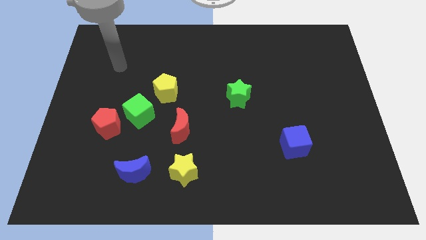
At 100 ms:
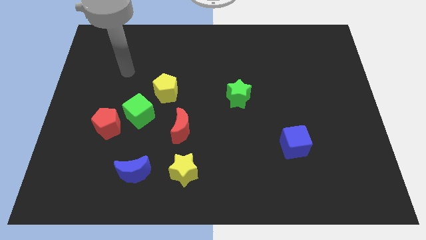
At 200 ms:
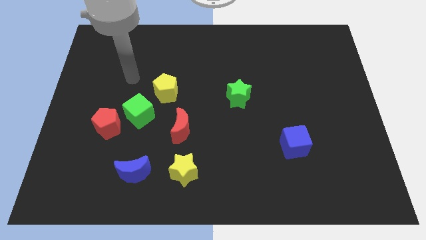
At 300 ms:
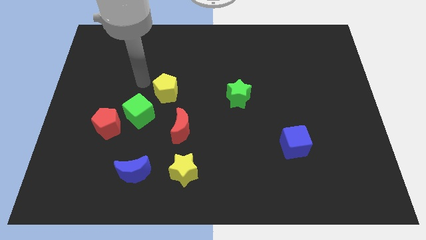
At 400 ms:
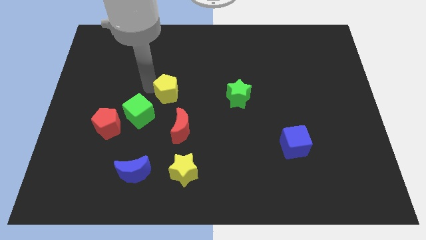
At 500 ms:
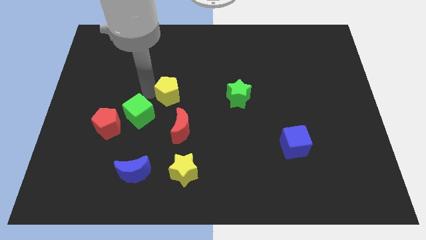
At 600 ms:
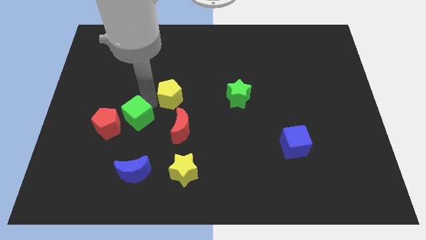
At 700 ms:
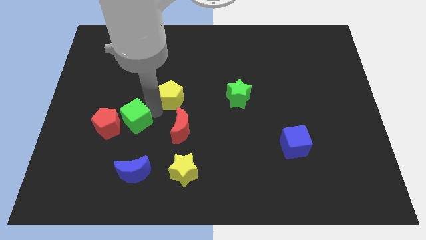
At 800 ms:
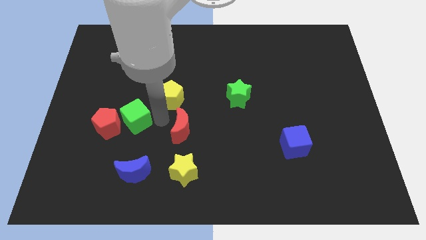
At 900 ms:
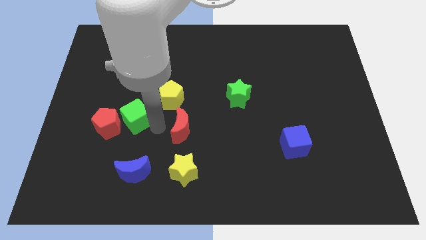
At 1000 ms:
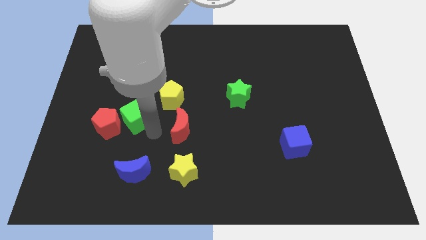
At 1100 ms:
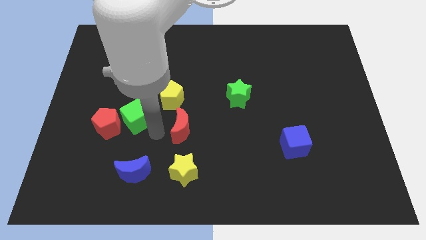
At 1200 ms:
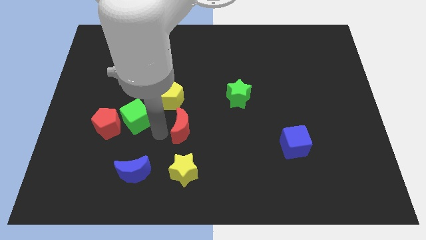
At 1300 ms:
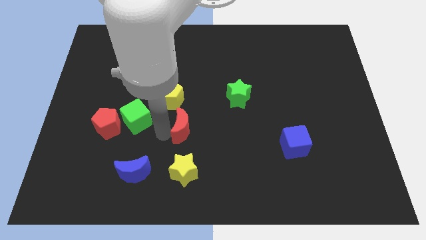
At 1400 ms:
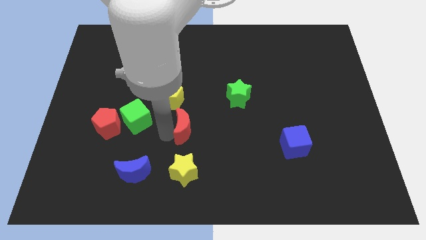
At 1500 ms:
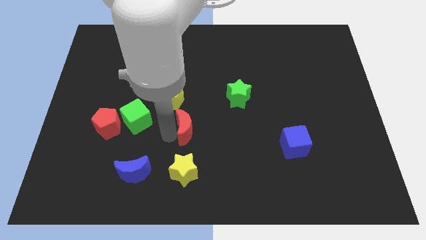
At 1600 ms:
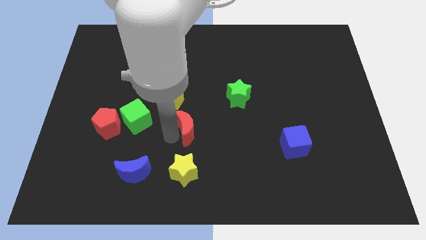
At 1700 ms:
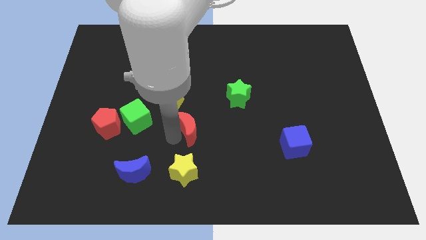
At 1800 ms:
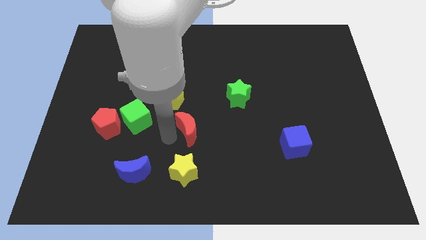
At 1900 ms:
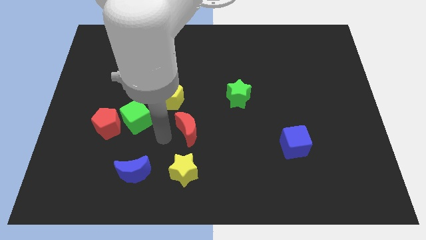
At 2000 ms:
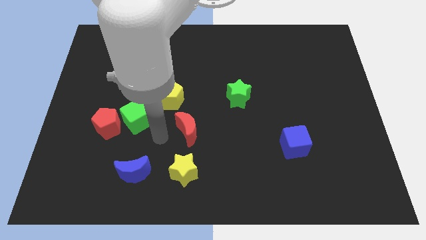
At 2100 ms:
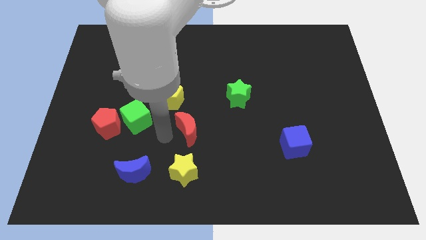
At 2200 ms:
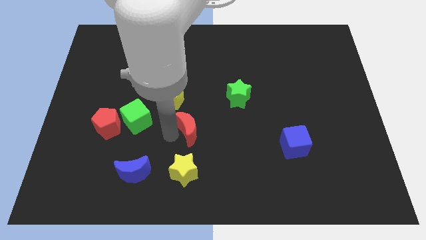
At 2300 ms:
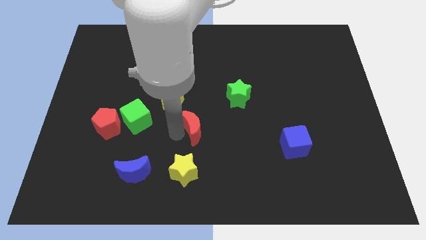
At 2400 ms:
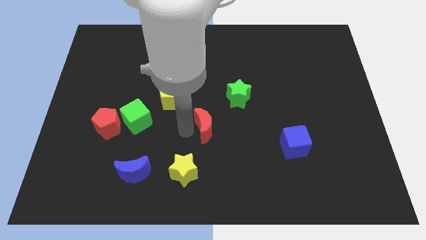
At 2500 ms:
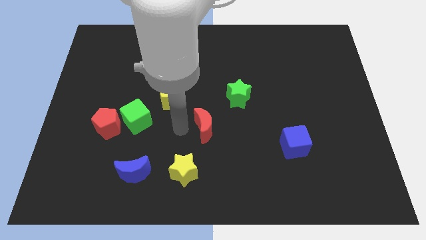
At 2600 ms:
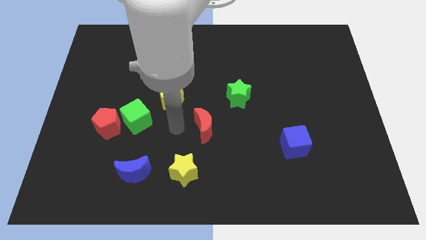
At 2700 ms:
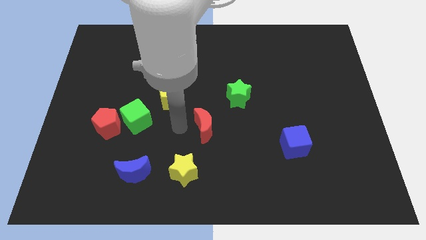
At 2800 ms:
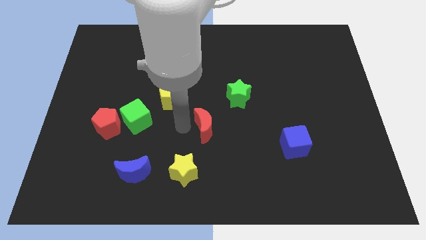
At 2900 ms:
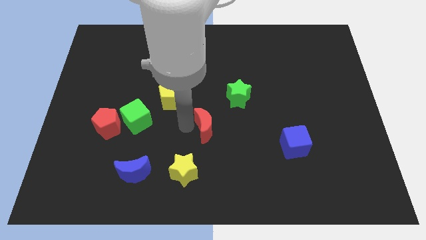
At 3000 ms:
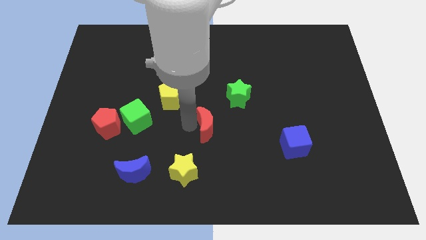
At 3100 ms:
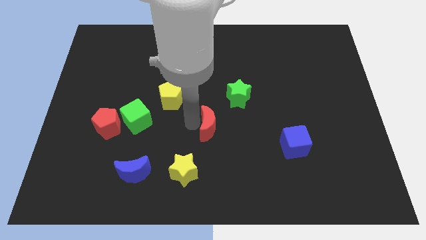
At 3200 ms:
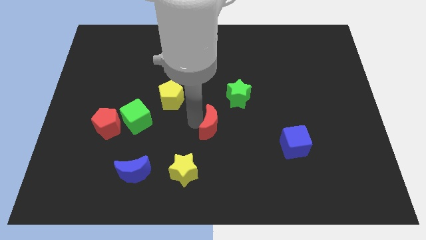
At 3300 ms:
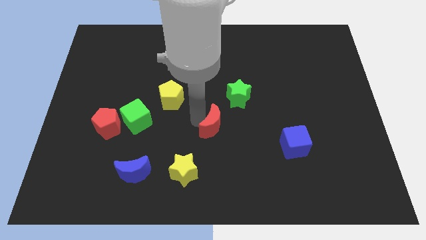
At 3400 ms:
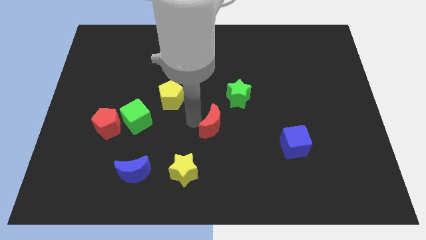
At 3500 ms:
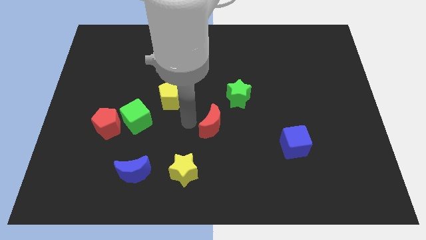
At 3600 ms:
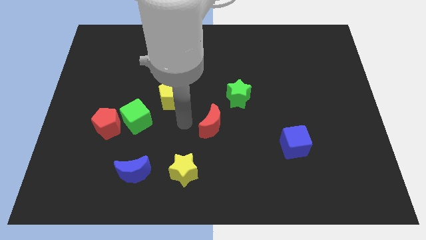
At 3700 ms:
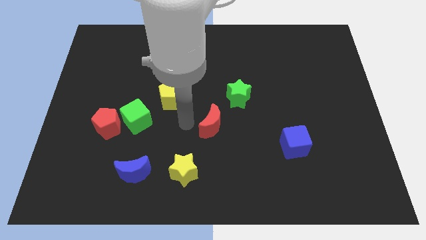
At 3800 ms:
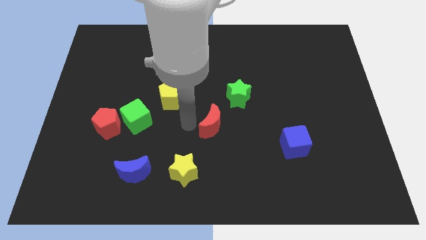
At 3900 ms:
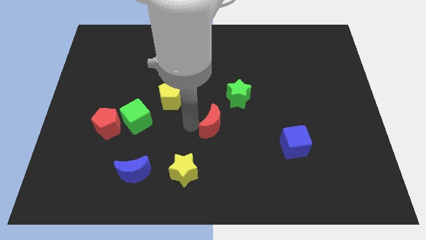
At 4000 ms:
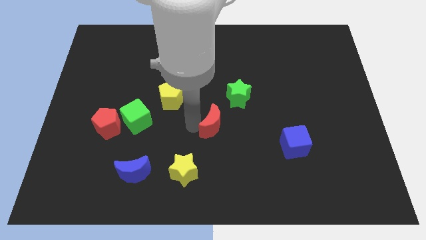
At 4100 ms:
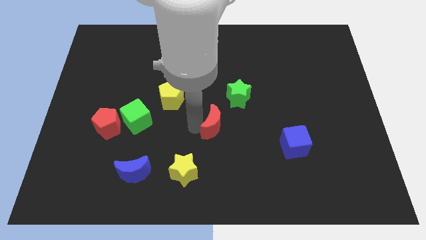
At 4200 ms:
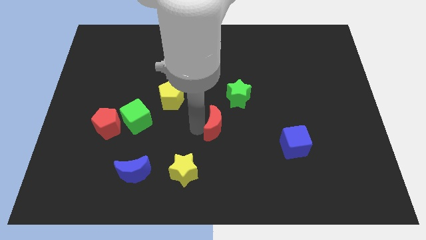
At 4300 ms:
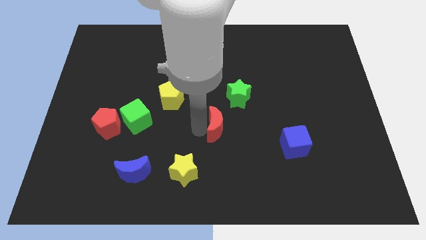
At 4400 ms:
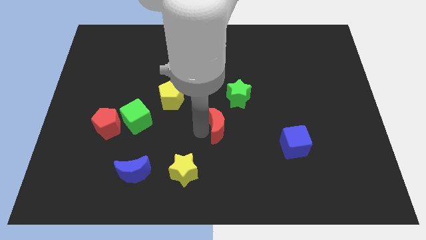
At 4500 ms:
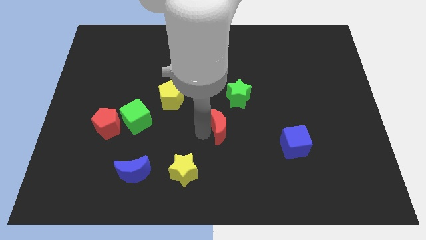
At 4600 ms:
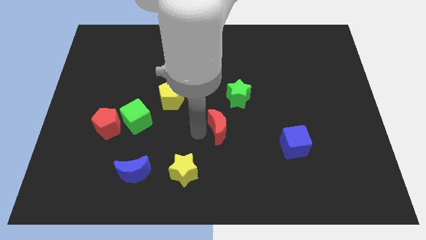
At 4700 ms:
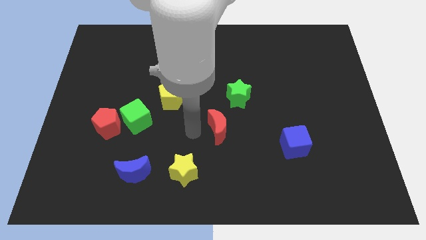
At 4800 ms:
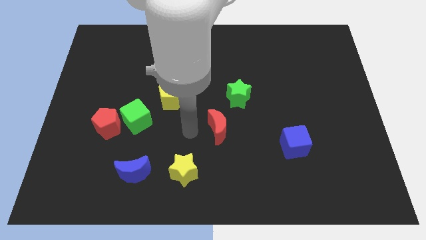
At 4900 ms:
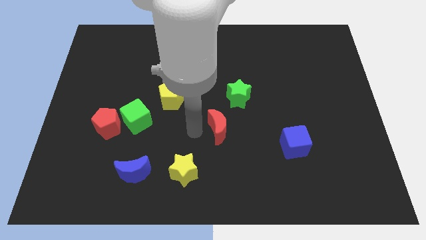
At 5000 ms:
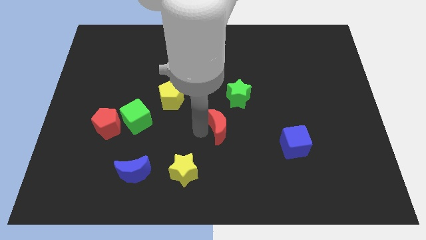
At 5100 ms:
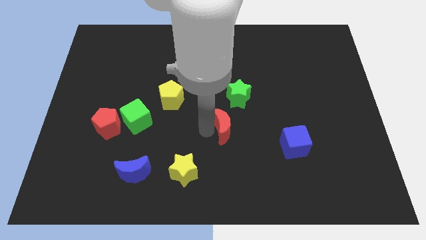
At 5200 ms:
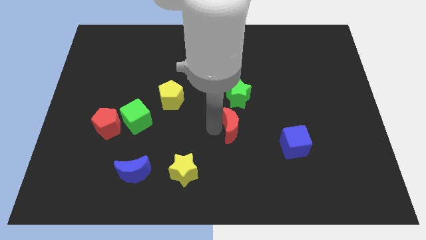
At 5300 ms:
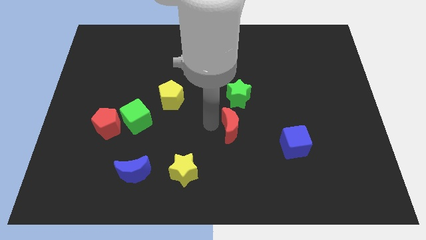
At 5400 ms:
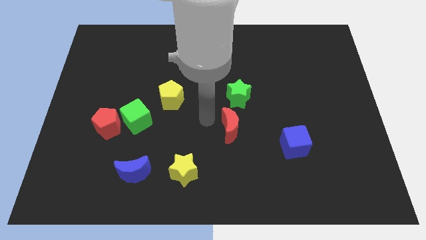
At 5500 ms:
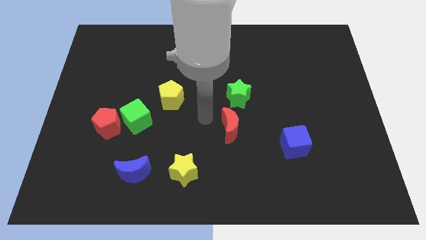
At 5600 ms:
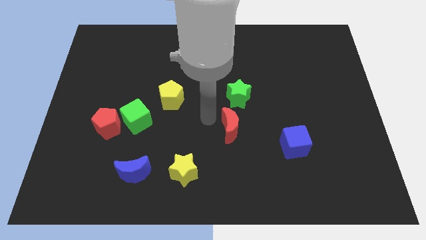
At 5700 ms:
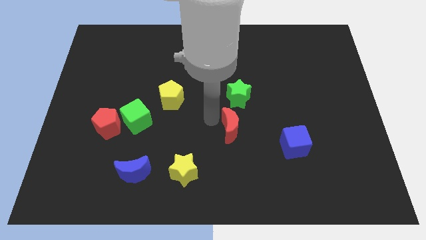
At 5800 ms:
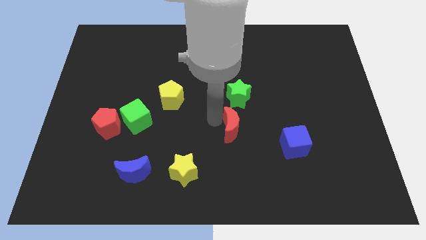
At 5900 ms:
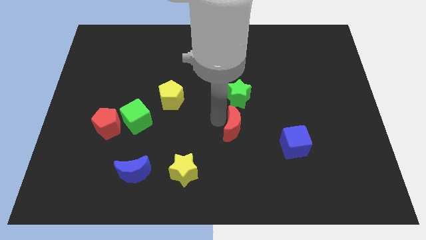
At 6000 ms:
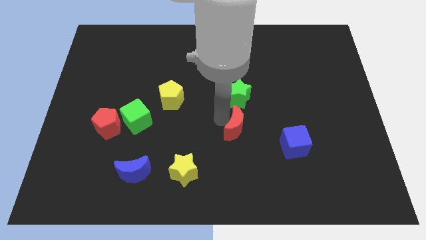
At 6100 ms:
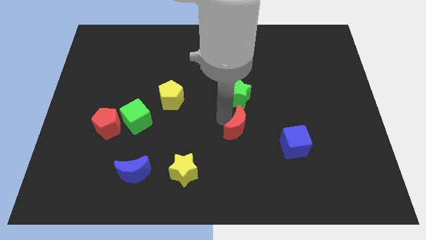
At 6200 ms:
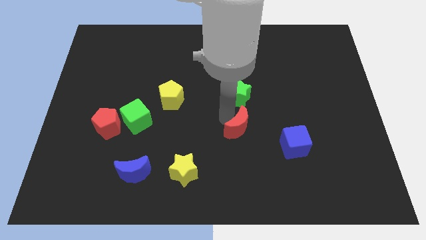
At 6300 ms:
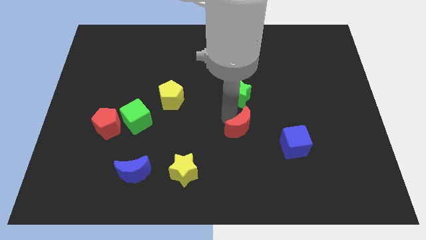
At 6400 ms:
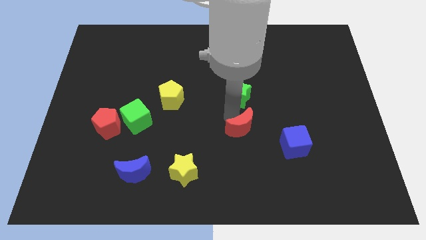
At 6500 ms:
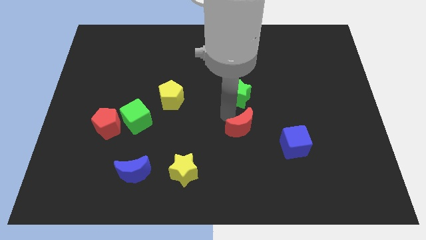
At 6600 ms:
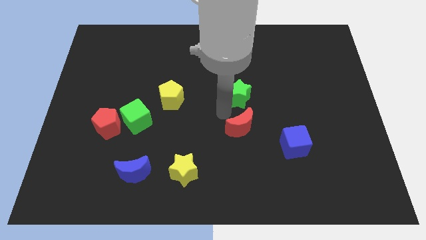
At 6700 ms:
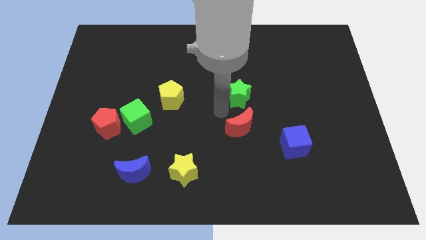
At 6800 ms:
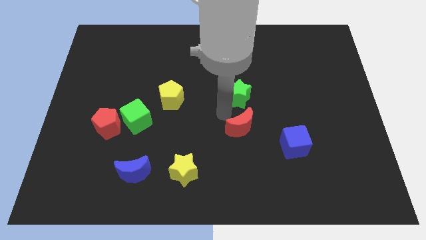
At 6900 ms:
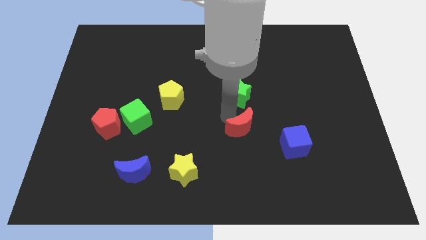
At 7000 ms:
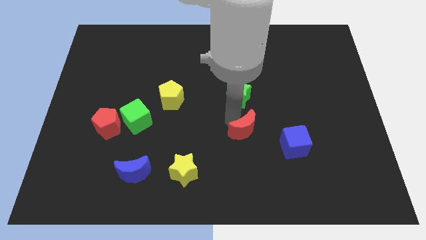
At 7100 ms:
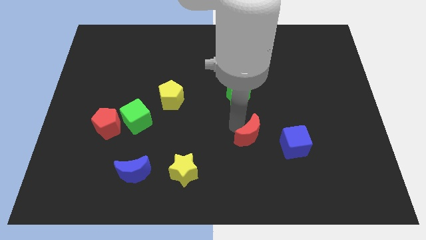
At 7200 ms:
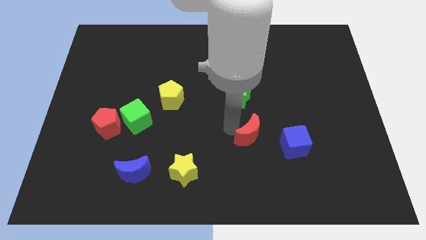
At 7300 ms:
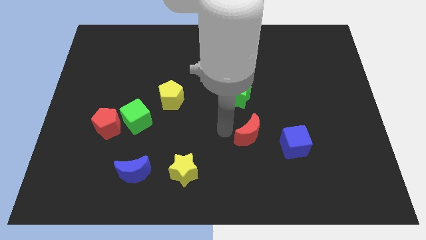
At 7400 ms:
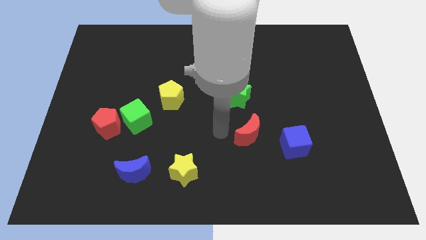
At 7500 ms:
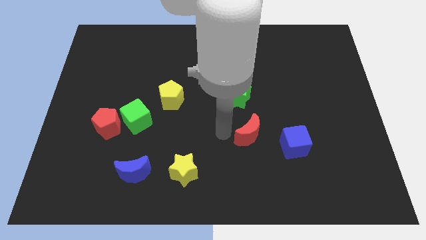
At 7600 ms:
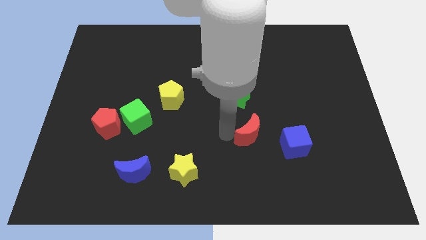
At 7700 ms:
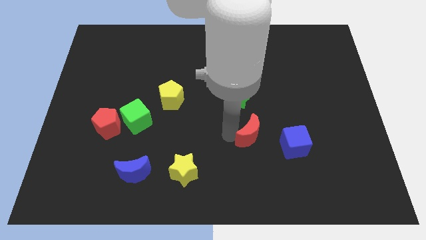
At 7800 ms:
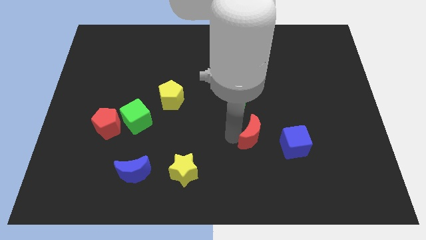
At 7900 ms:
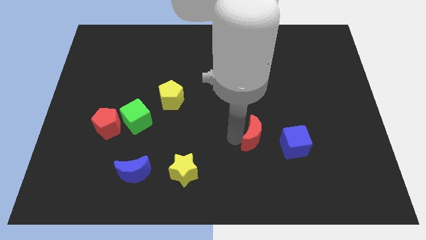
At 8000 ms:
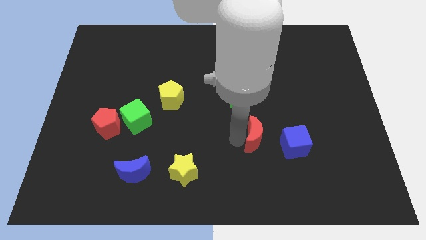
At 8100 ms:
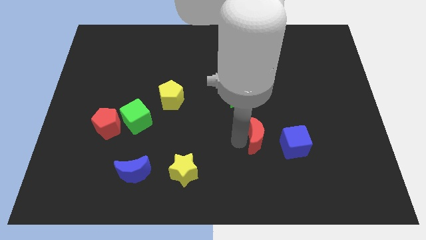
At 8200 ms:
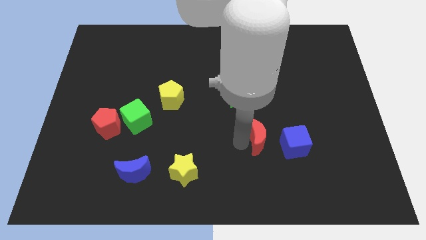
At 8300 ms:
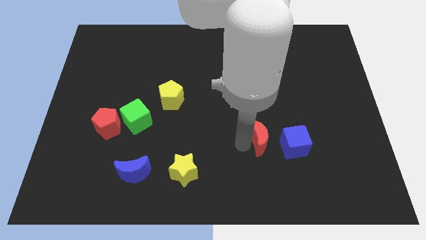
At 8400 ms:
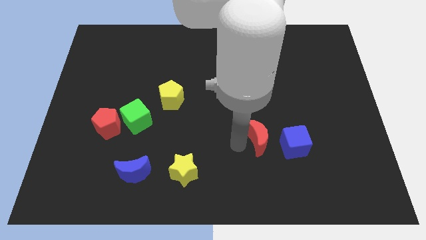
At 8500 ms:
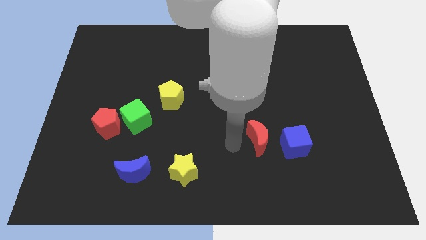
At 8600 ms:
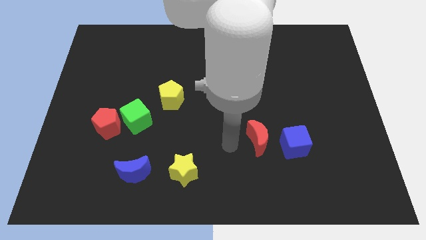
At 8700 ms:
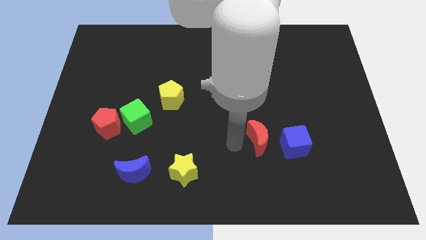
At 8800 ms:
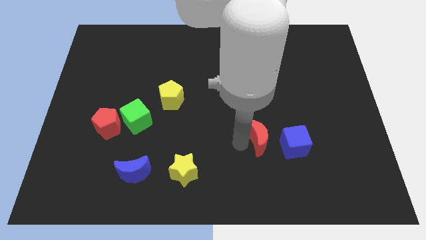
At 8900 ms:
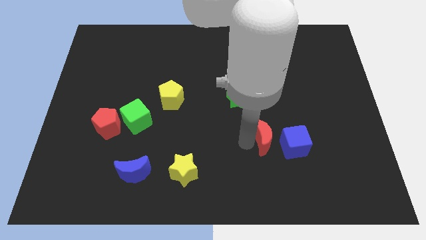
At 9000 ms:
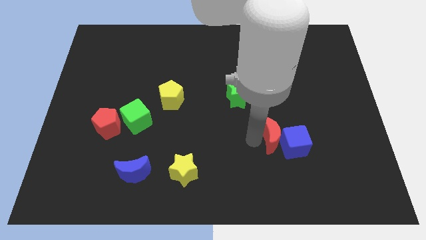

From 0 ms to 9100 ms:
push the red moon next to the blue cube
